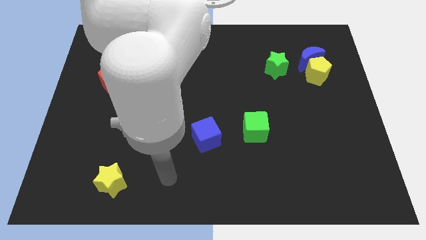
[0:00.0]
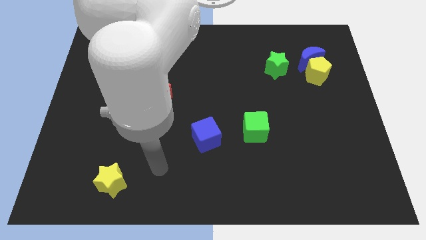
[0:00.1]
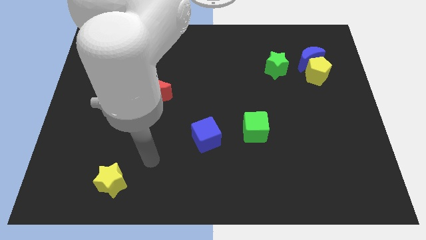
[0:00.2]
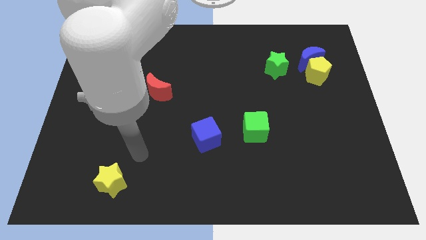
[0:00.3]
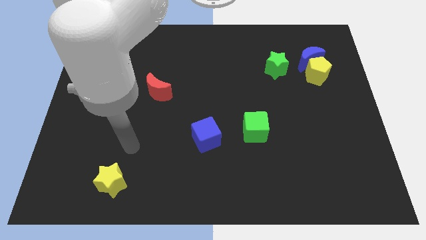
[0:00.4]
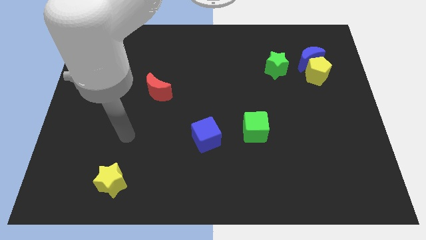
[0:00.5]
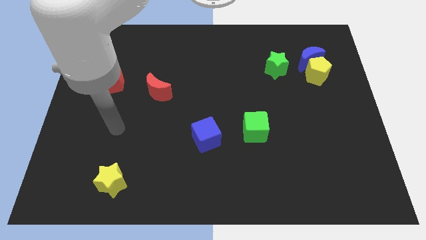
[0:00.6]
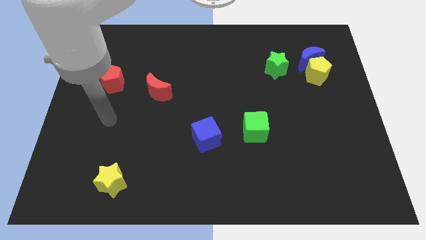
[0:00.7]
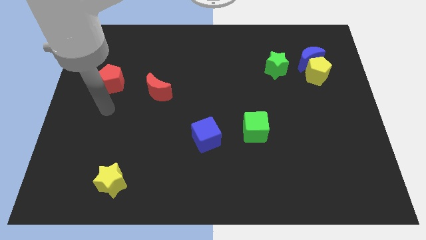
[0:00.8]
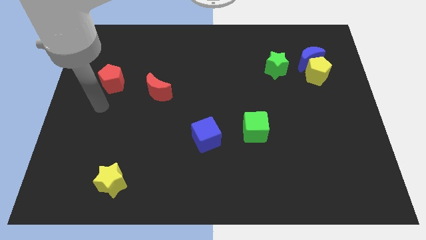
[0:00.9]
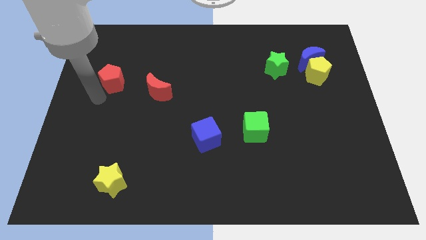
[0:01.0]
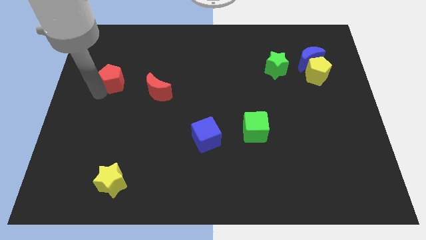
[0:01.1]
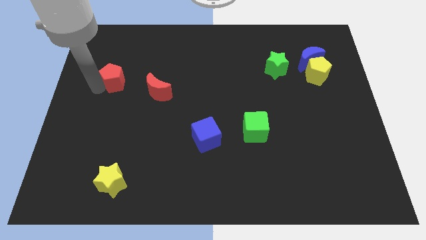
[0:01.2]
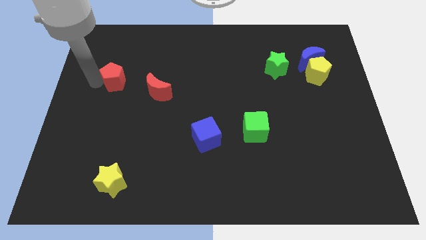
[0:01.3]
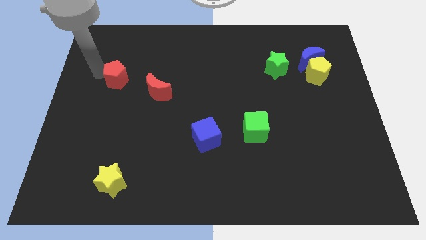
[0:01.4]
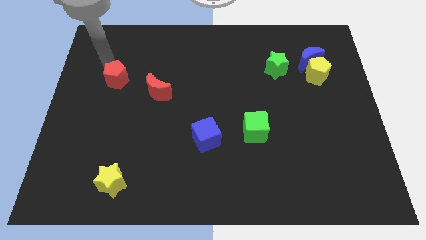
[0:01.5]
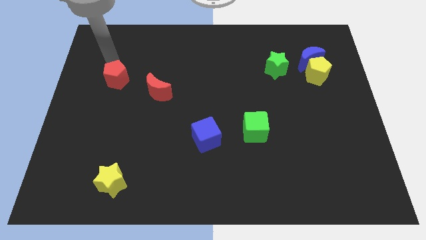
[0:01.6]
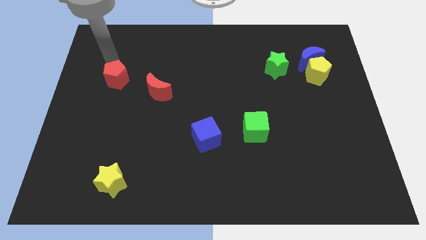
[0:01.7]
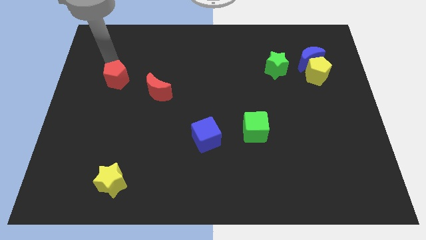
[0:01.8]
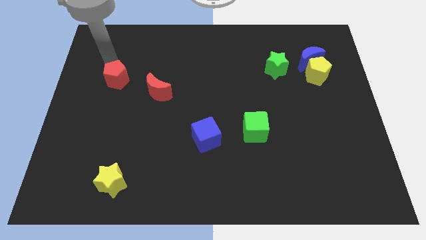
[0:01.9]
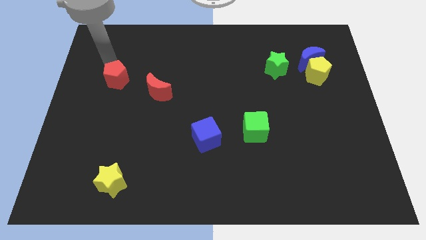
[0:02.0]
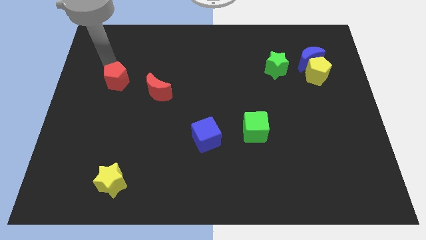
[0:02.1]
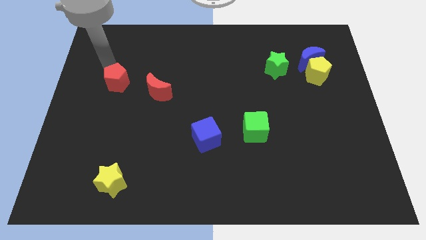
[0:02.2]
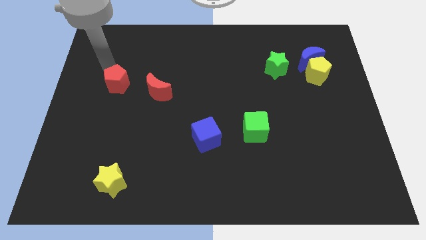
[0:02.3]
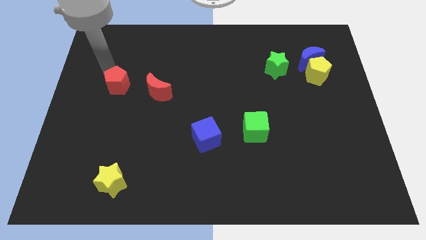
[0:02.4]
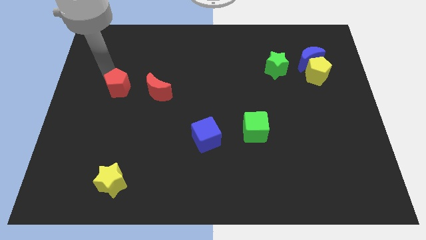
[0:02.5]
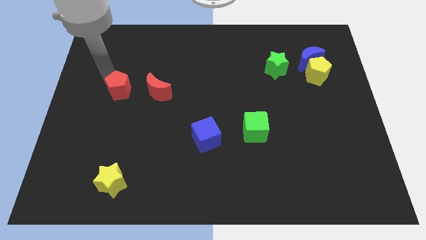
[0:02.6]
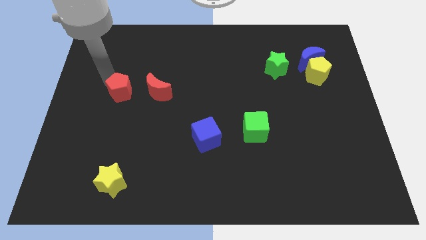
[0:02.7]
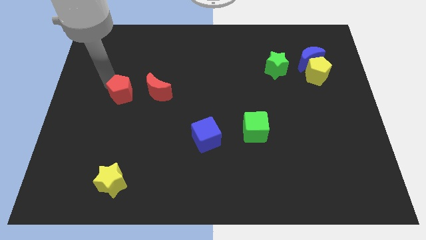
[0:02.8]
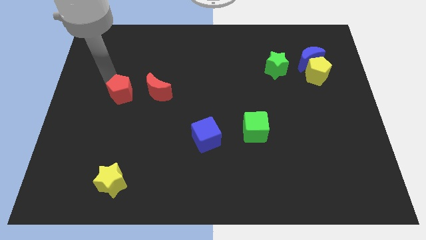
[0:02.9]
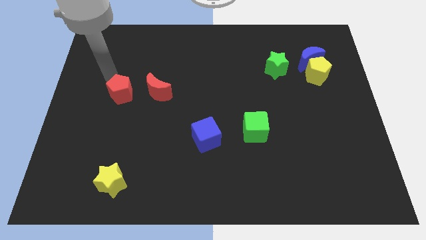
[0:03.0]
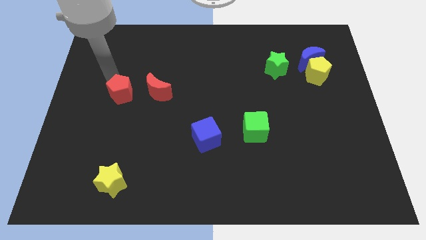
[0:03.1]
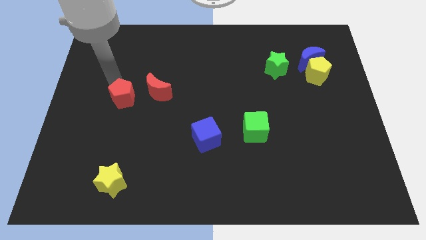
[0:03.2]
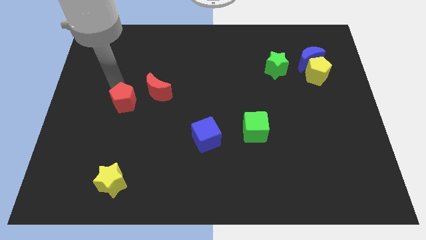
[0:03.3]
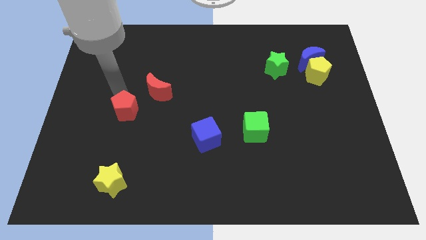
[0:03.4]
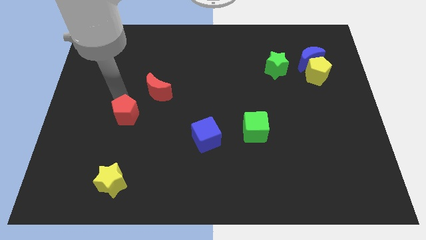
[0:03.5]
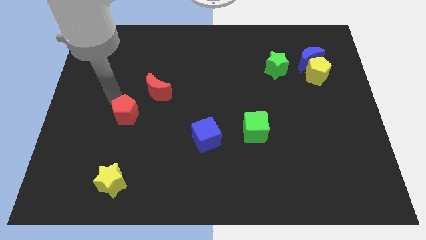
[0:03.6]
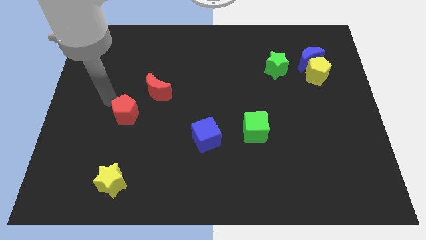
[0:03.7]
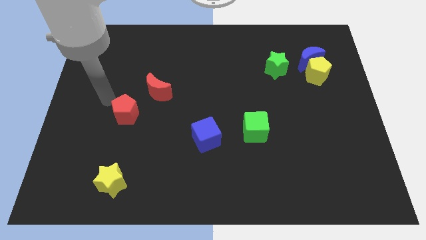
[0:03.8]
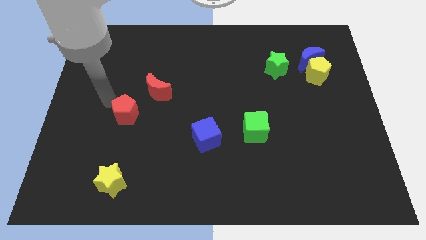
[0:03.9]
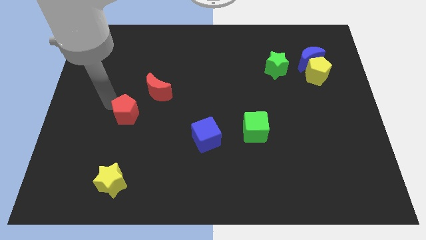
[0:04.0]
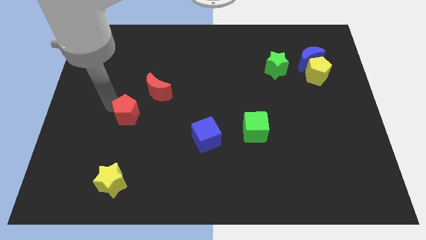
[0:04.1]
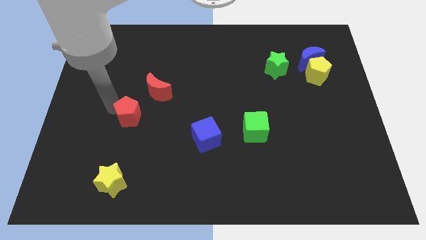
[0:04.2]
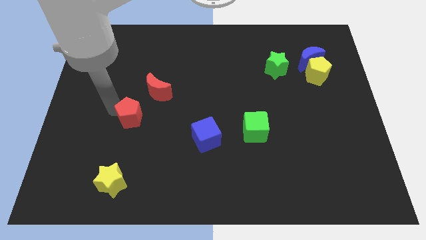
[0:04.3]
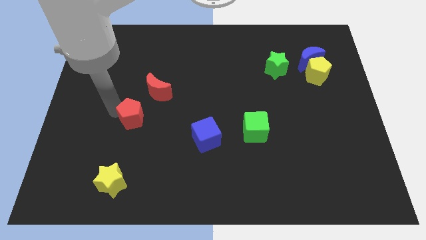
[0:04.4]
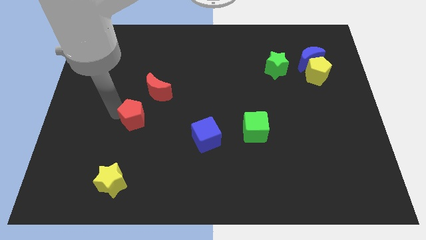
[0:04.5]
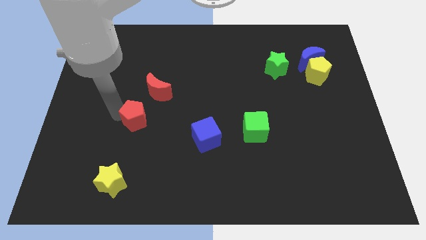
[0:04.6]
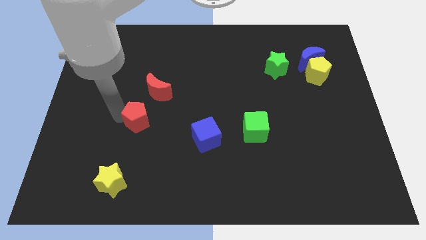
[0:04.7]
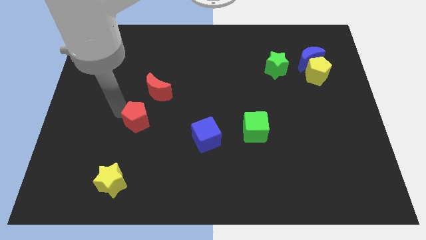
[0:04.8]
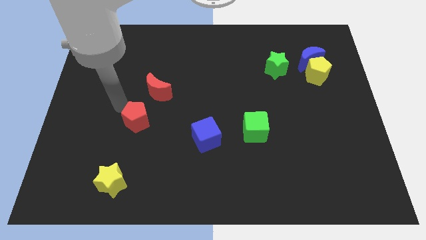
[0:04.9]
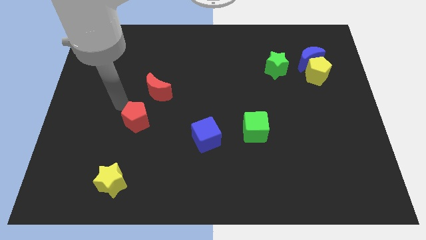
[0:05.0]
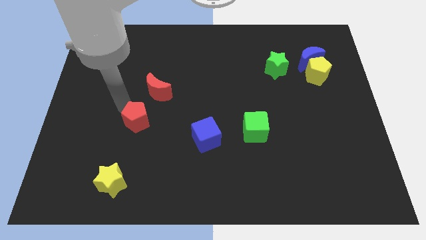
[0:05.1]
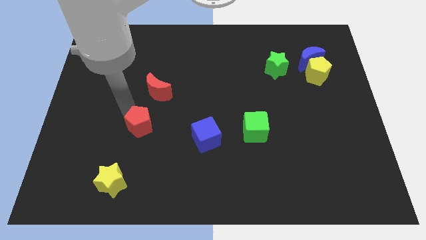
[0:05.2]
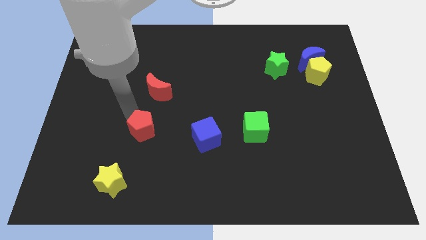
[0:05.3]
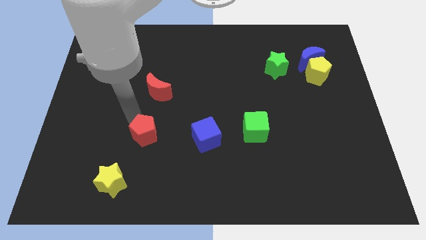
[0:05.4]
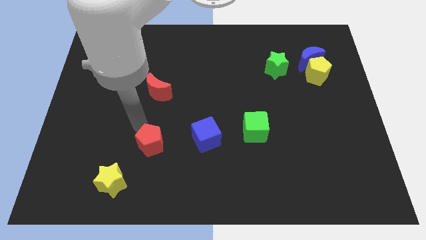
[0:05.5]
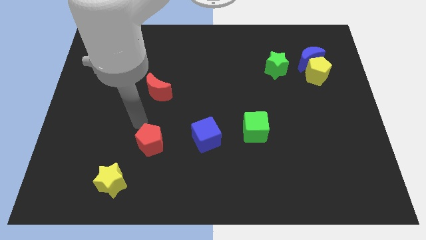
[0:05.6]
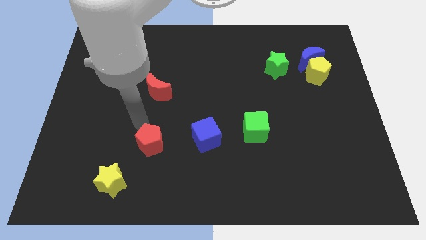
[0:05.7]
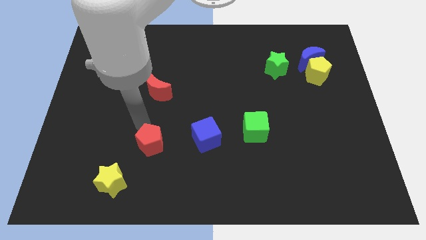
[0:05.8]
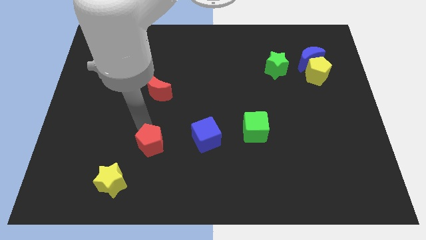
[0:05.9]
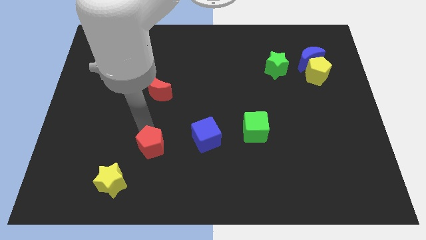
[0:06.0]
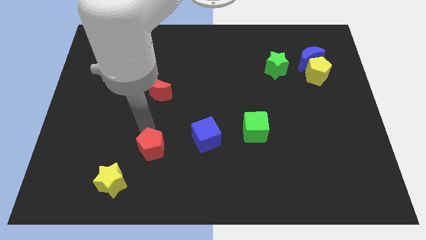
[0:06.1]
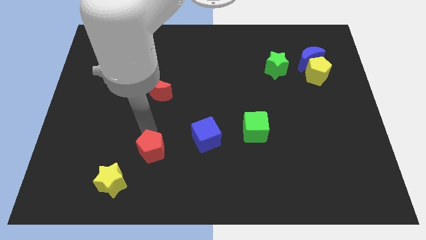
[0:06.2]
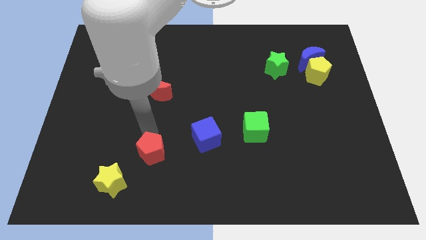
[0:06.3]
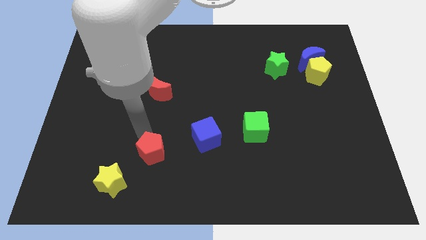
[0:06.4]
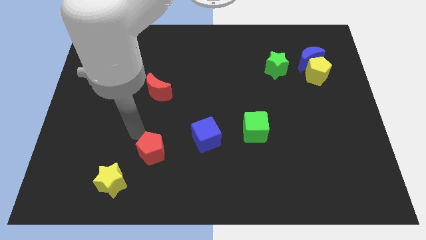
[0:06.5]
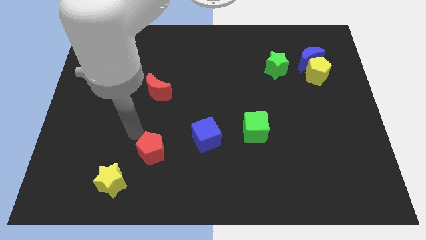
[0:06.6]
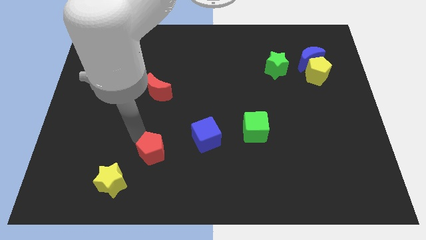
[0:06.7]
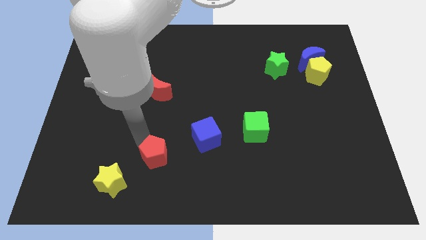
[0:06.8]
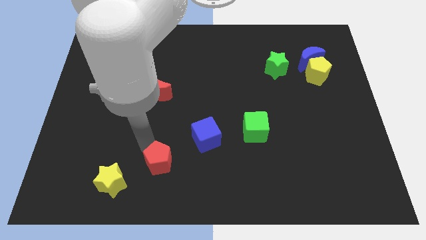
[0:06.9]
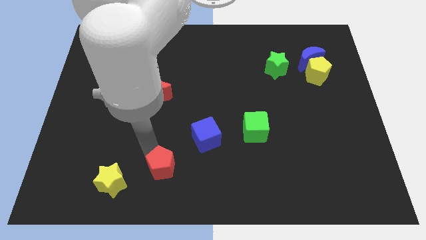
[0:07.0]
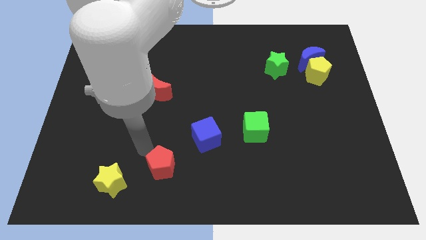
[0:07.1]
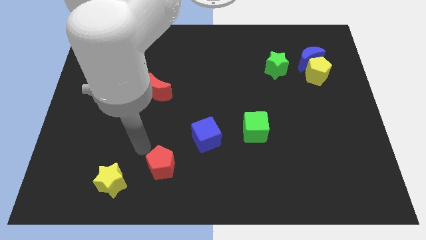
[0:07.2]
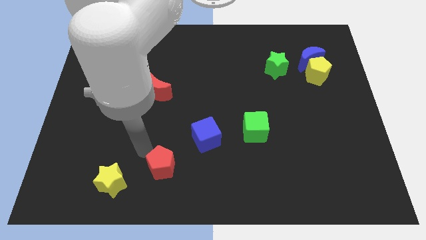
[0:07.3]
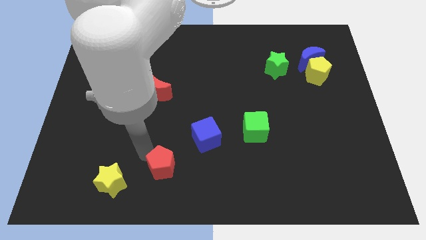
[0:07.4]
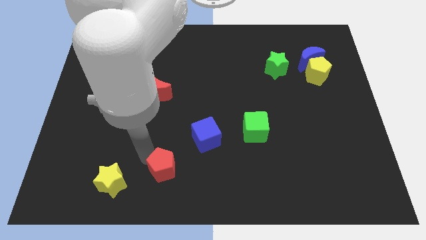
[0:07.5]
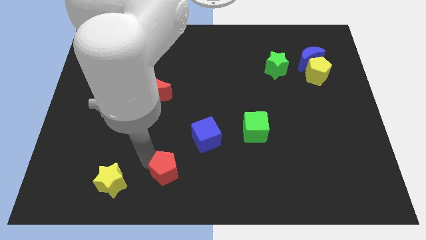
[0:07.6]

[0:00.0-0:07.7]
put the red pentagon to the bottom

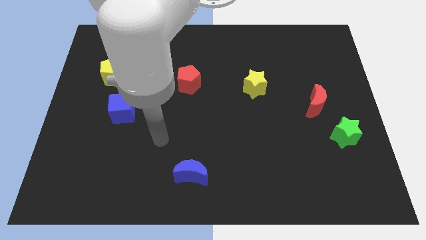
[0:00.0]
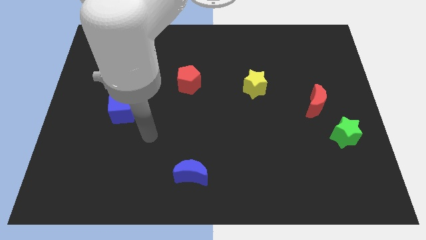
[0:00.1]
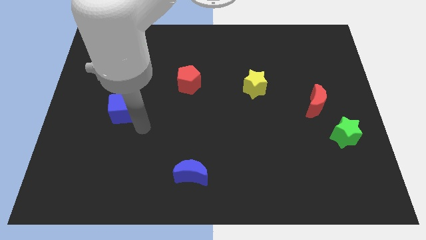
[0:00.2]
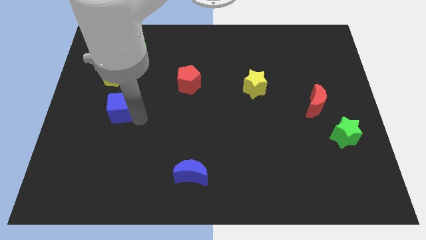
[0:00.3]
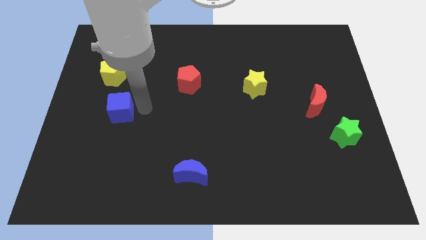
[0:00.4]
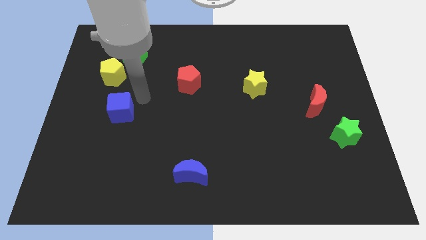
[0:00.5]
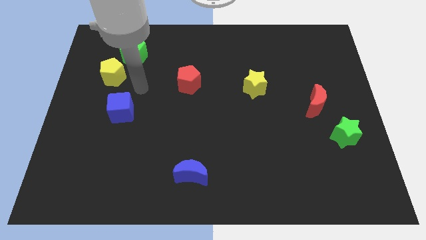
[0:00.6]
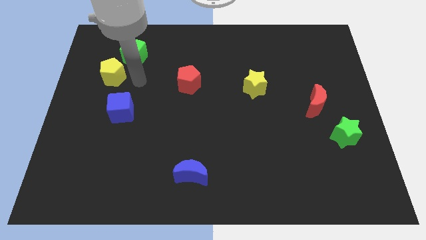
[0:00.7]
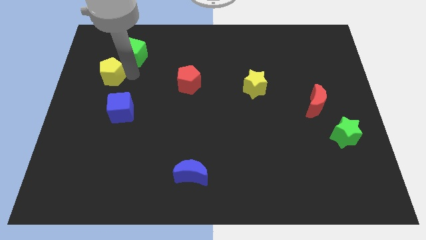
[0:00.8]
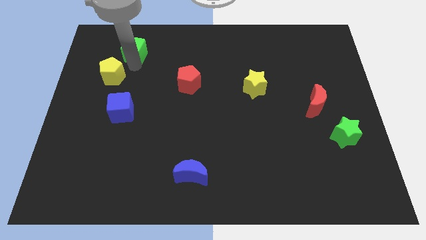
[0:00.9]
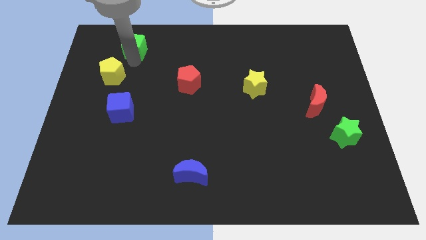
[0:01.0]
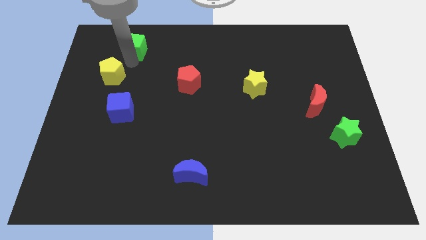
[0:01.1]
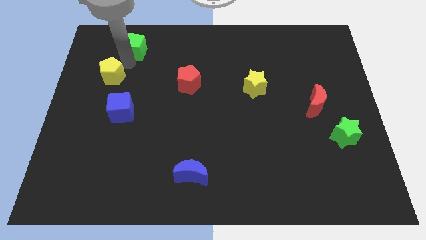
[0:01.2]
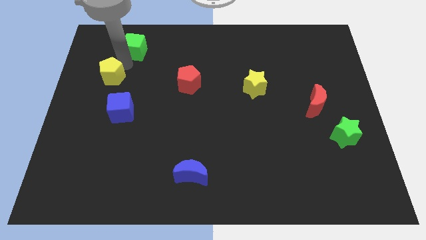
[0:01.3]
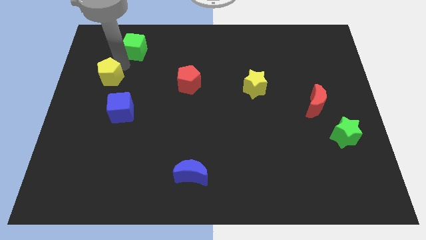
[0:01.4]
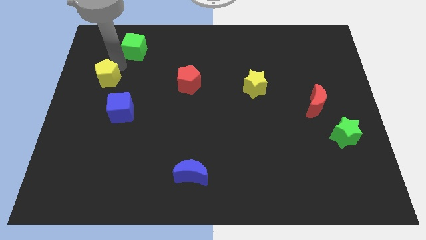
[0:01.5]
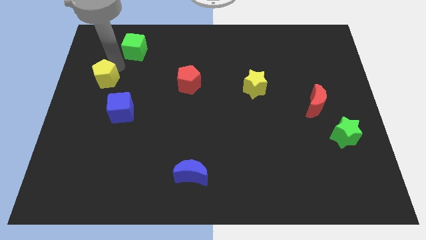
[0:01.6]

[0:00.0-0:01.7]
push the yellow pentagon to the center left
